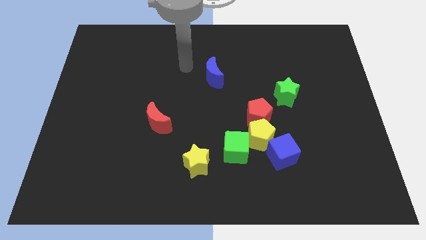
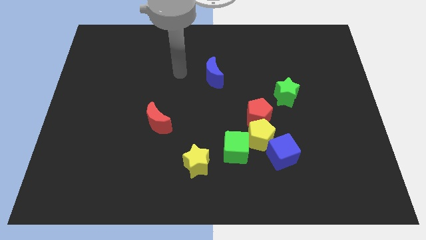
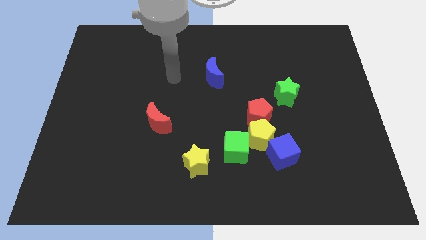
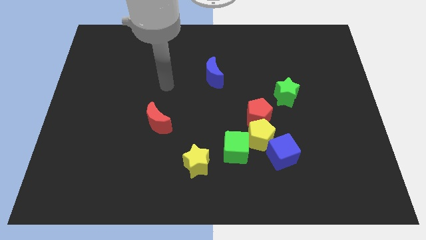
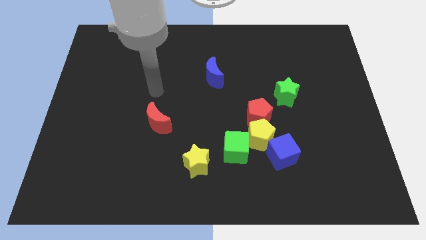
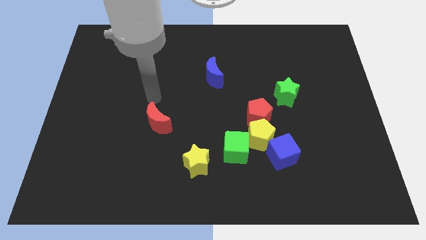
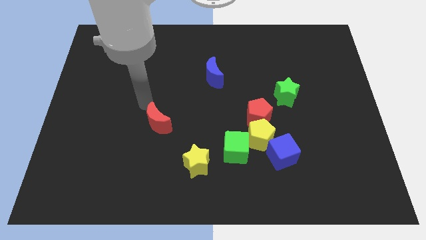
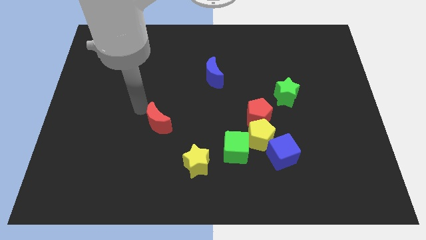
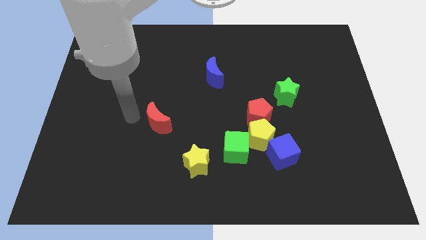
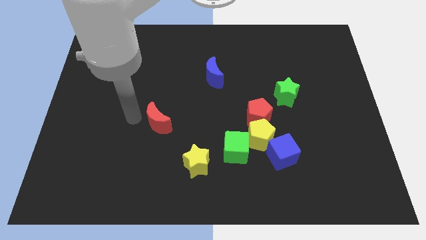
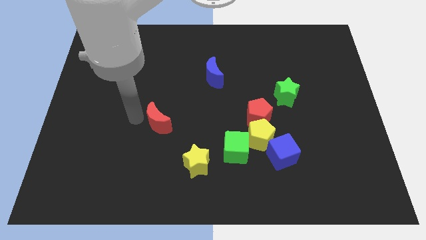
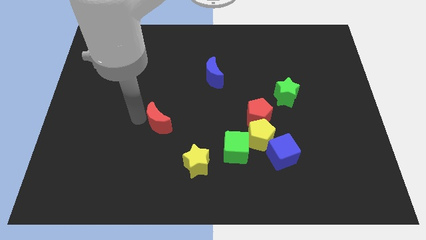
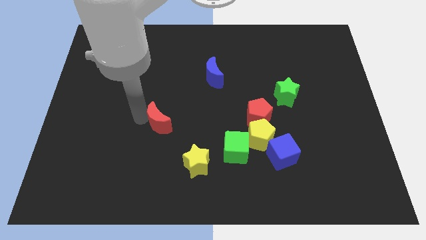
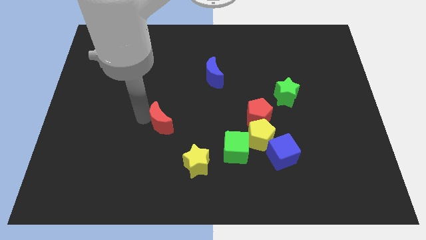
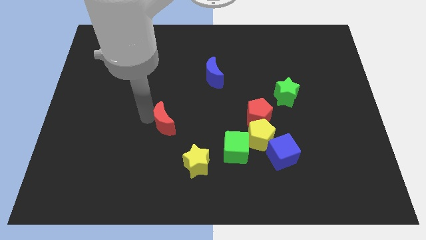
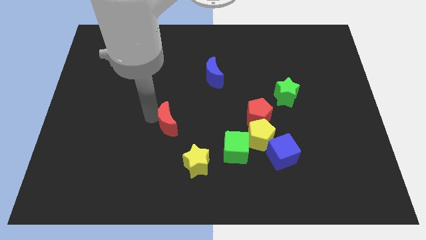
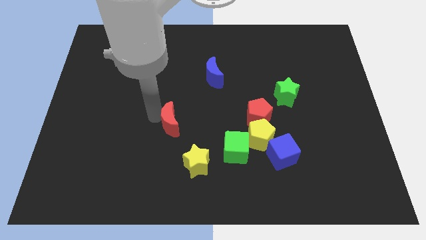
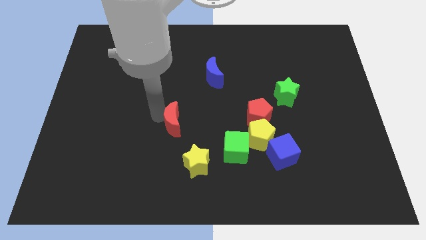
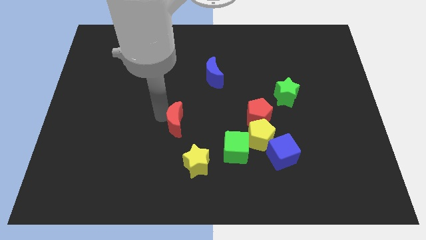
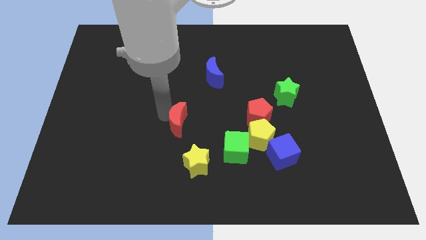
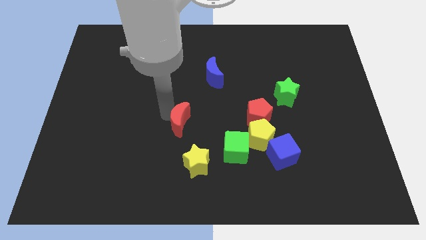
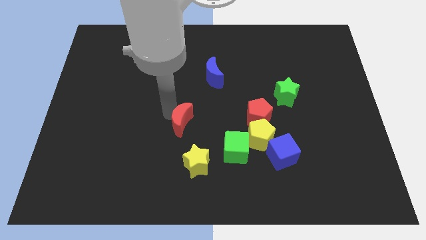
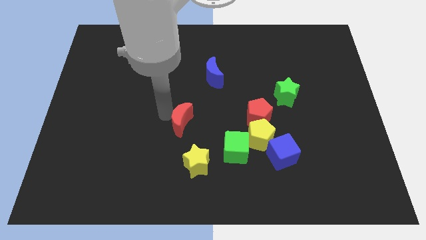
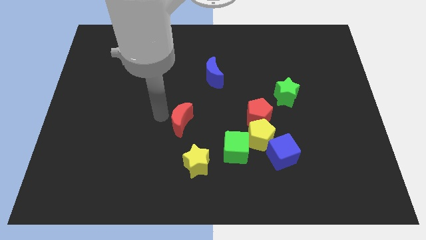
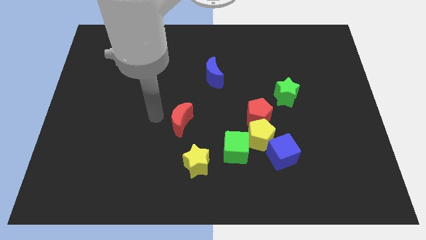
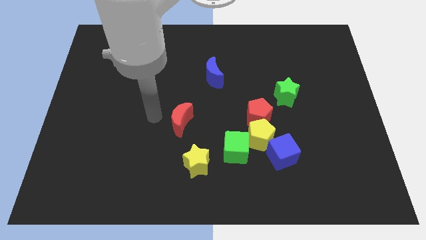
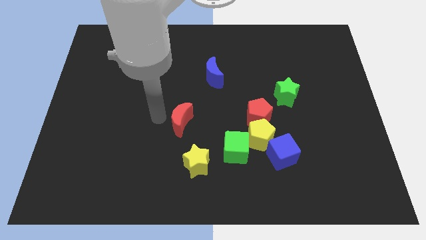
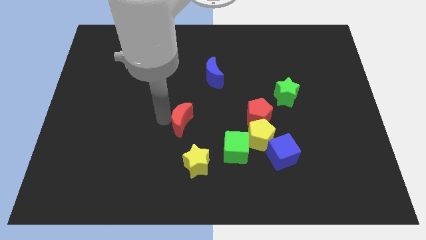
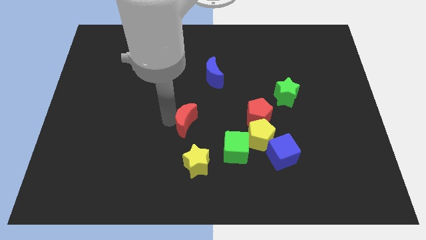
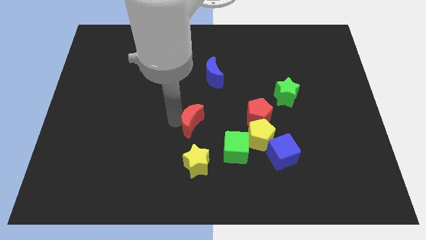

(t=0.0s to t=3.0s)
push the red moon right a little bit

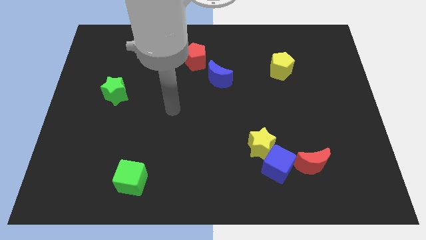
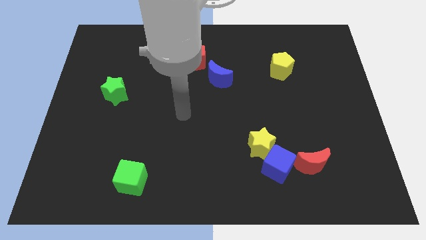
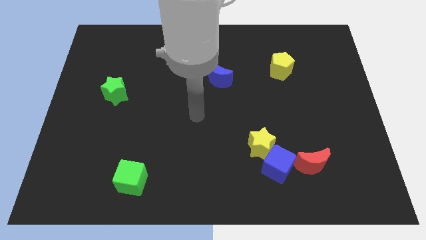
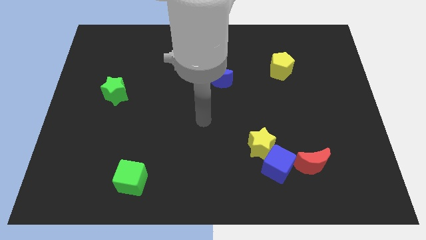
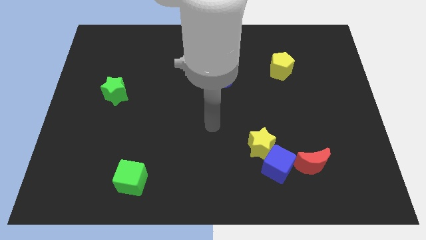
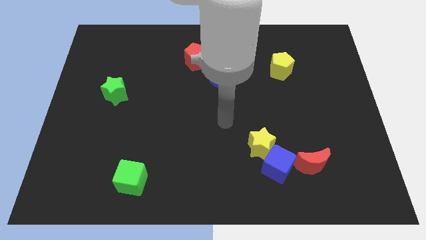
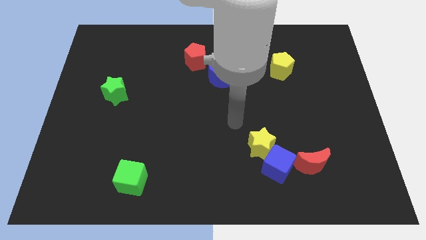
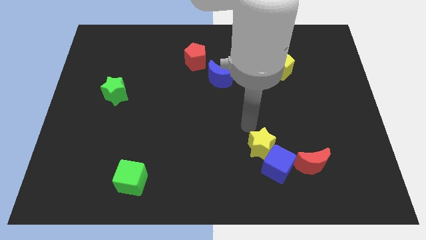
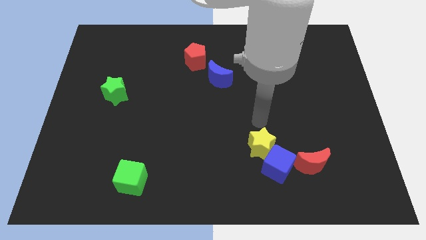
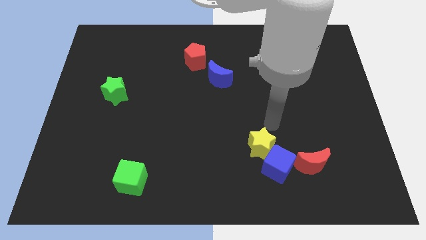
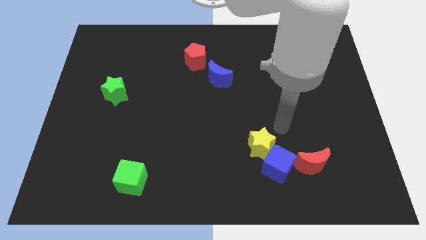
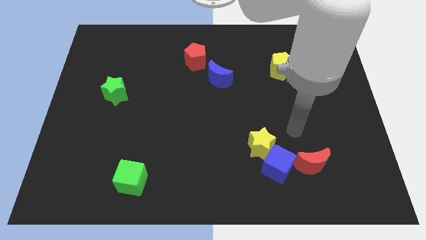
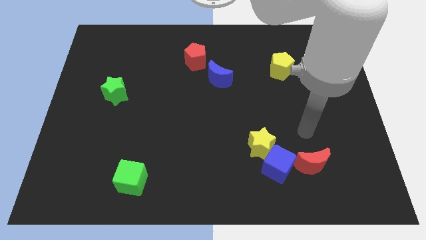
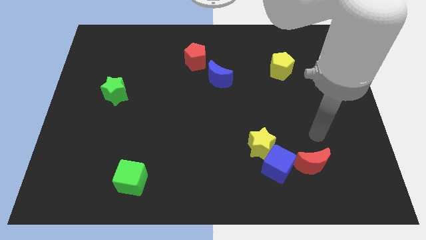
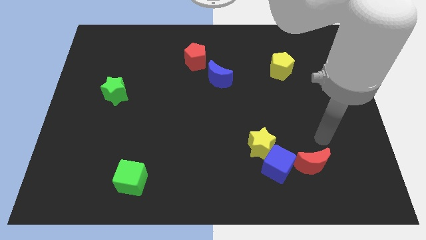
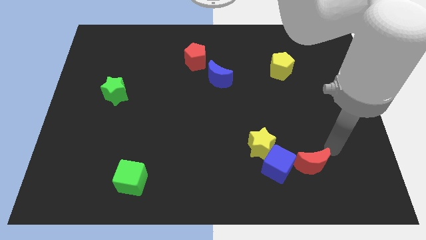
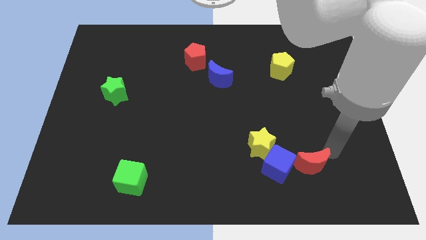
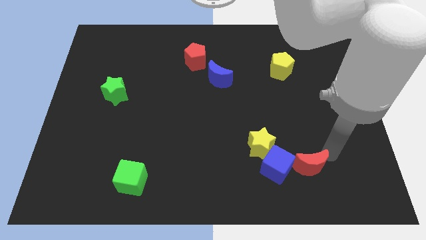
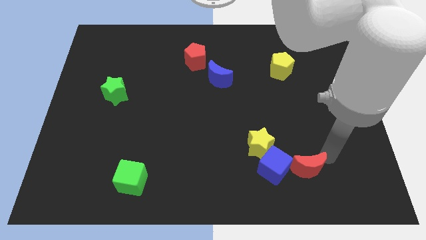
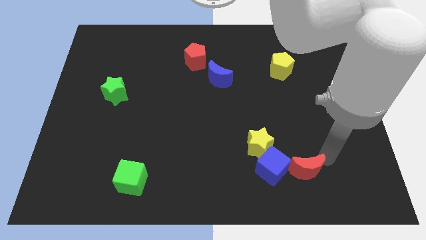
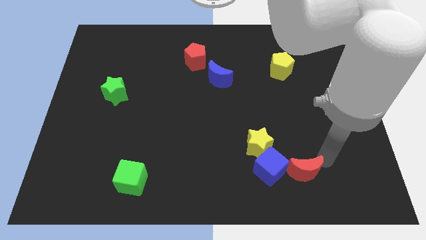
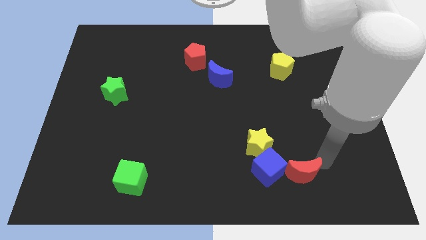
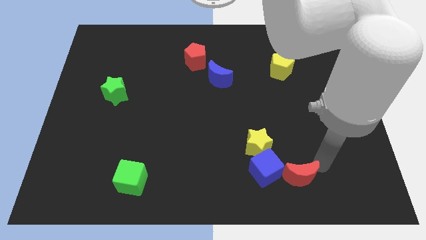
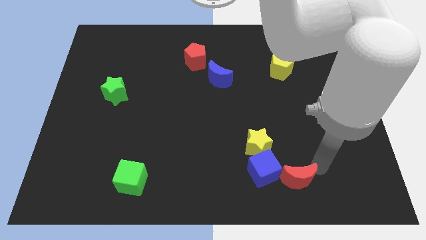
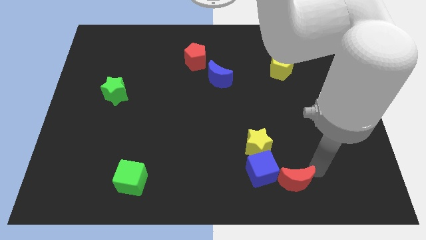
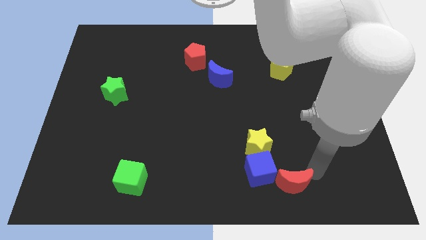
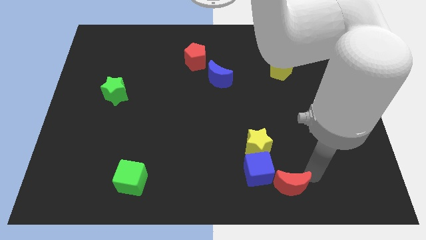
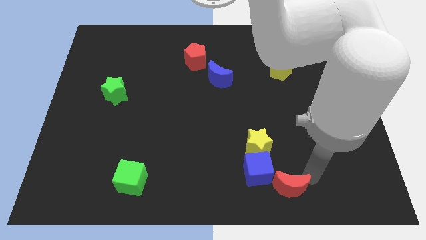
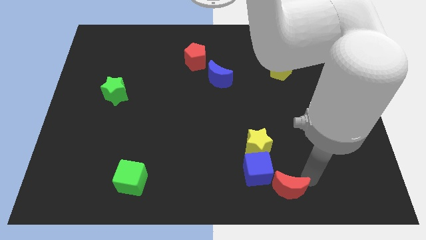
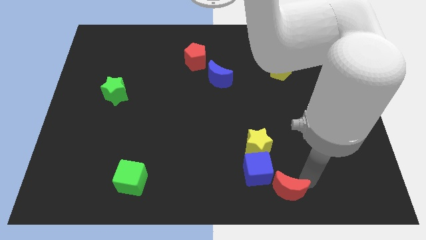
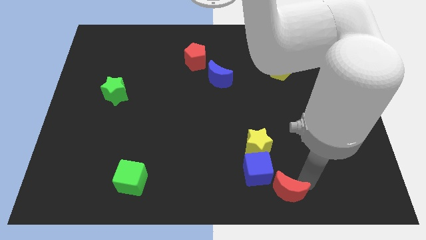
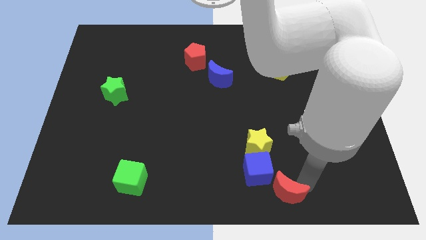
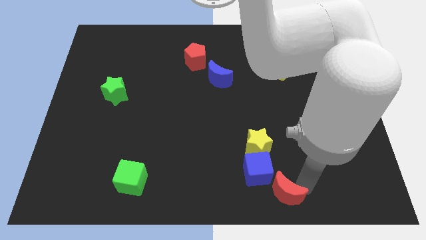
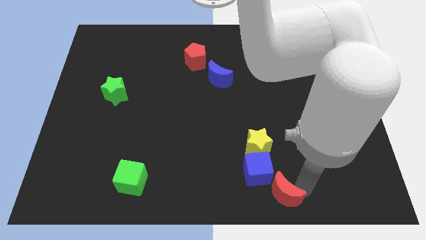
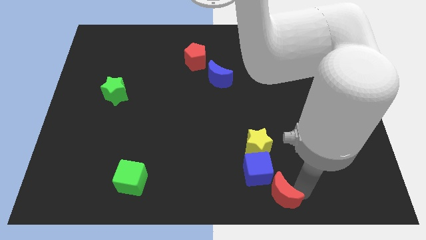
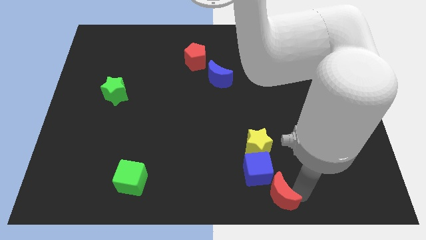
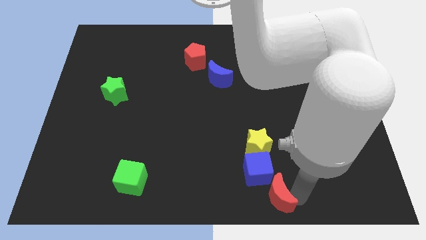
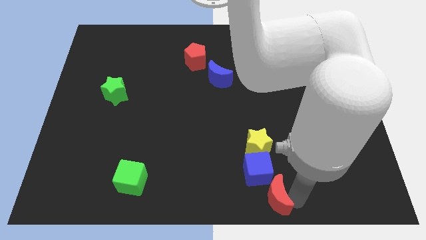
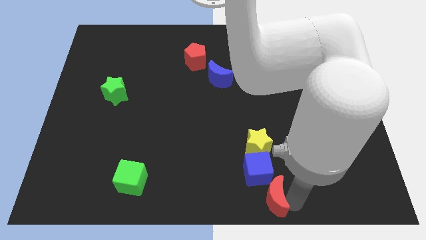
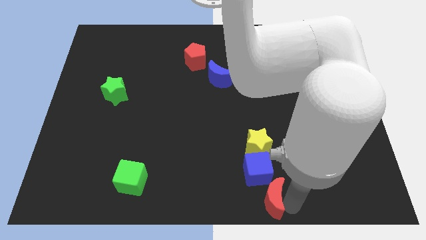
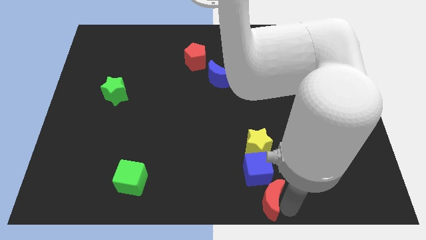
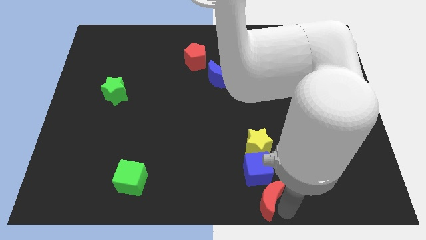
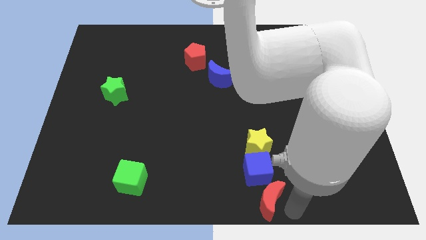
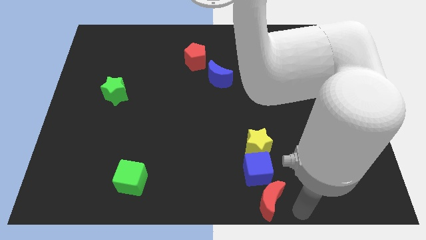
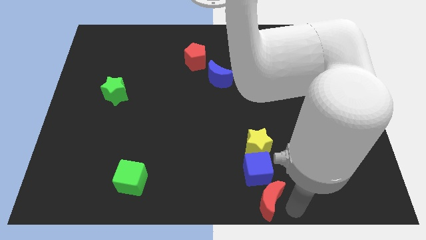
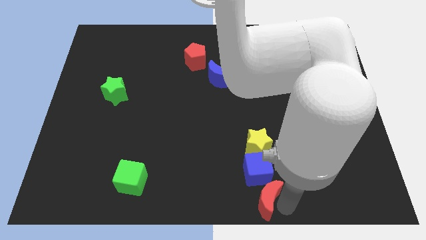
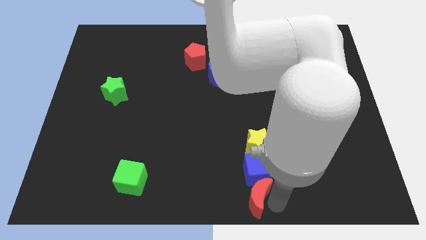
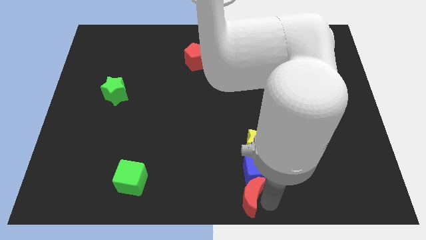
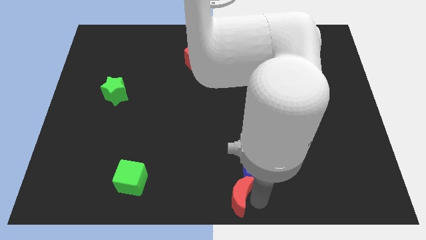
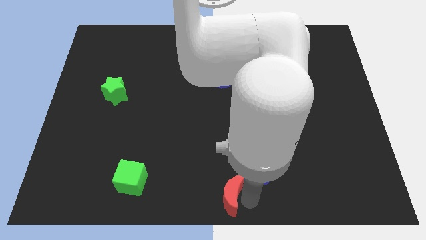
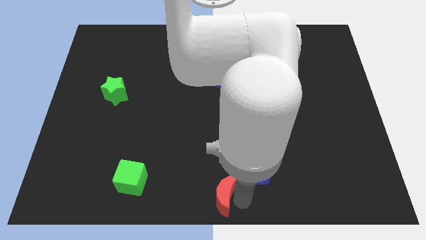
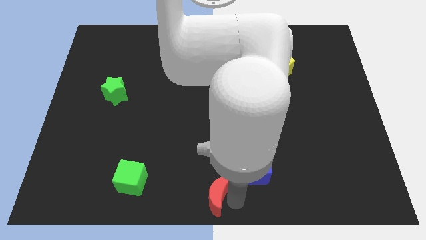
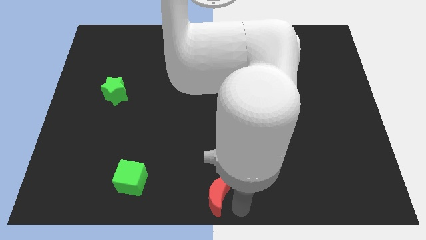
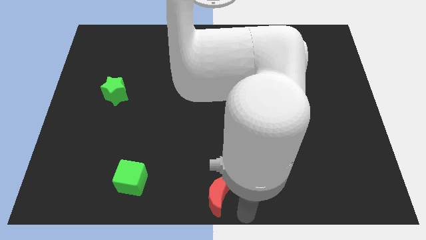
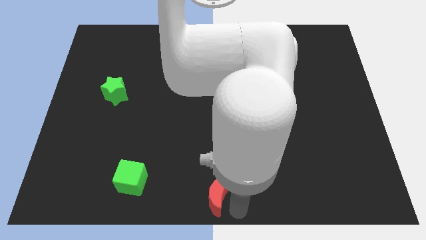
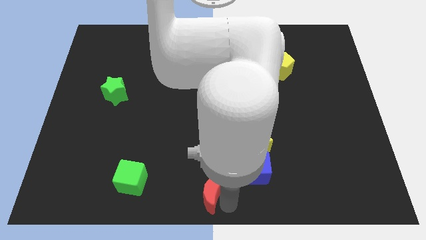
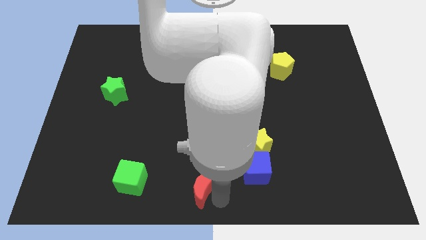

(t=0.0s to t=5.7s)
slide the red moon left
